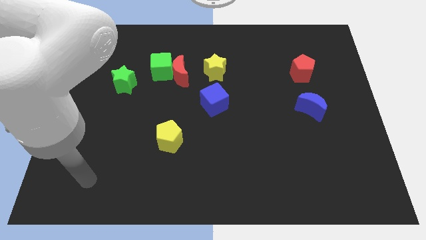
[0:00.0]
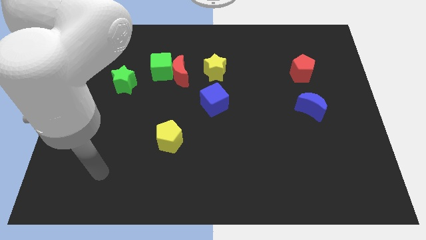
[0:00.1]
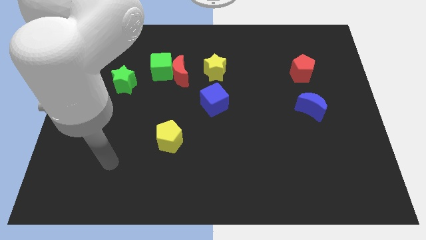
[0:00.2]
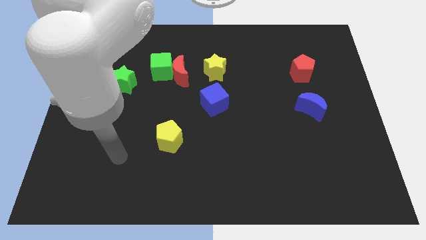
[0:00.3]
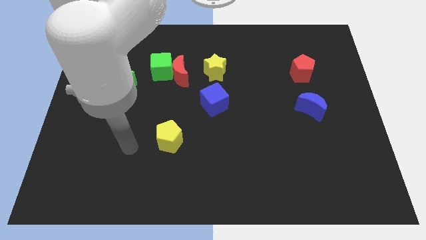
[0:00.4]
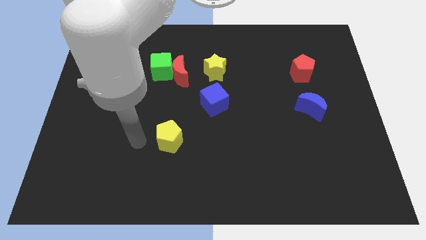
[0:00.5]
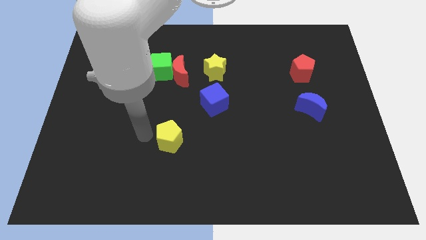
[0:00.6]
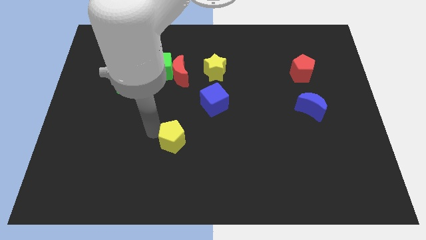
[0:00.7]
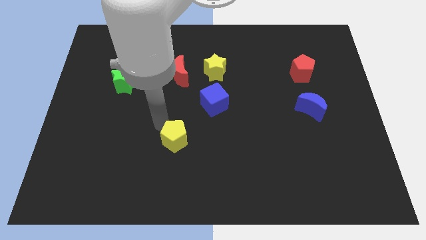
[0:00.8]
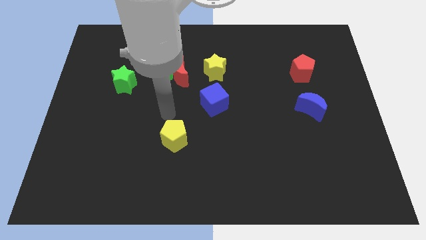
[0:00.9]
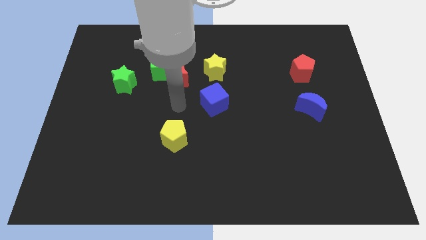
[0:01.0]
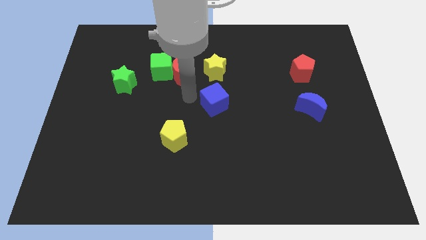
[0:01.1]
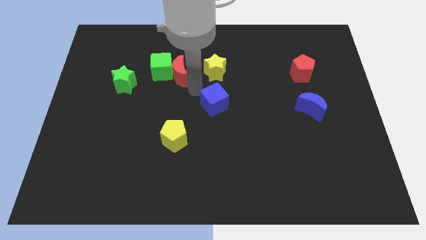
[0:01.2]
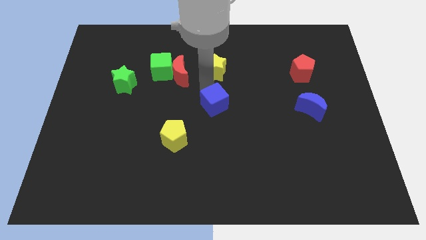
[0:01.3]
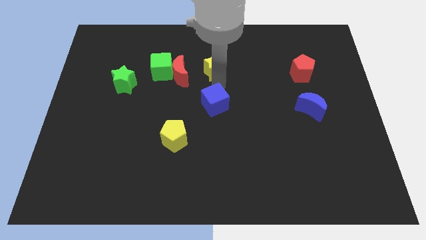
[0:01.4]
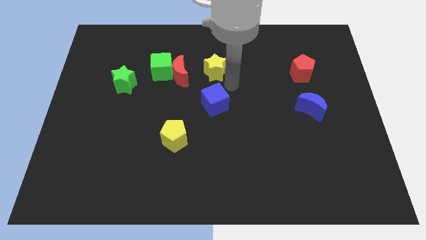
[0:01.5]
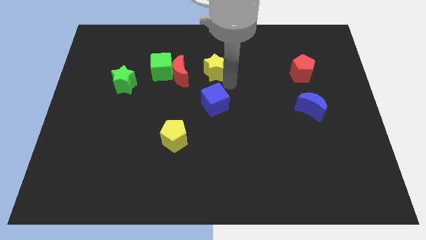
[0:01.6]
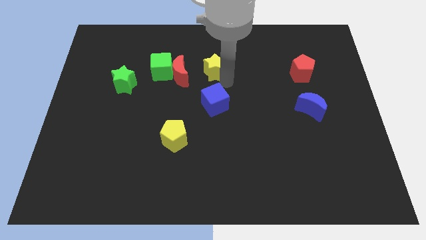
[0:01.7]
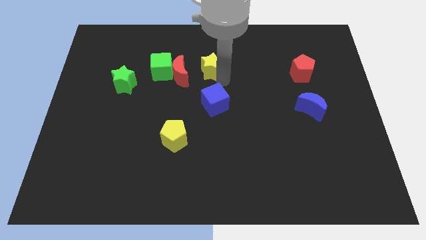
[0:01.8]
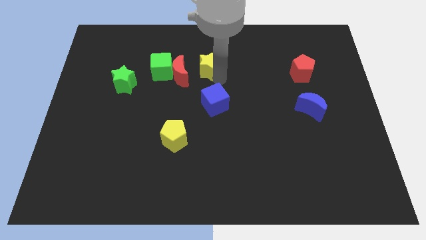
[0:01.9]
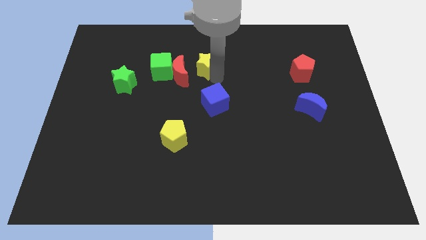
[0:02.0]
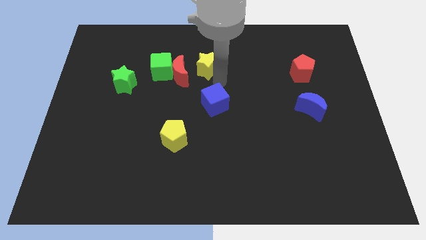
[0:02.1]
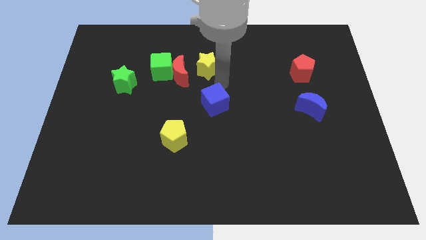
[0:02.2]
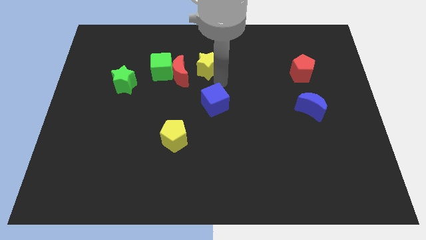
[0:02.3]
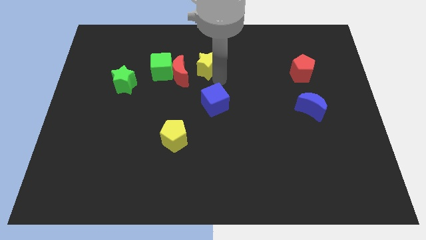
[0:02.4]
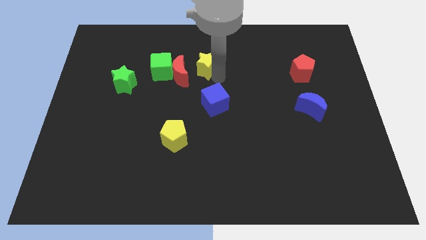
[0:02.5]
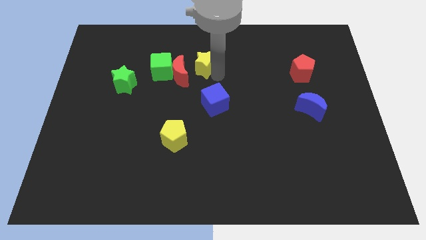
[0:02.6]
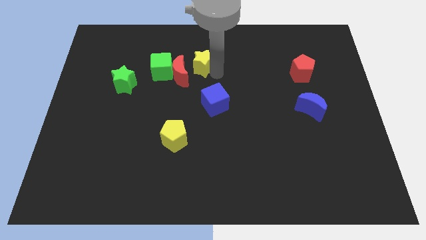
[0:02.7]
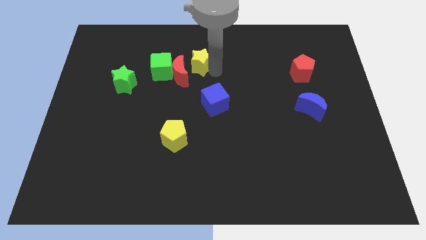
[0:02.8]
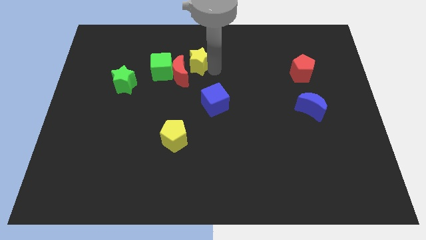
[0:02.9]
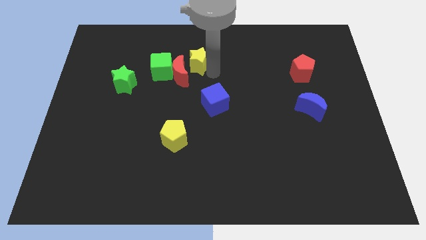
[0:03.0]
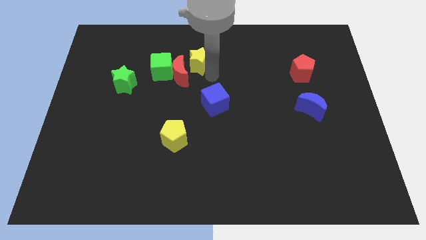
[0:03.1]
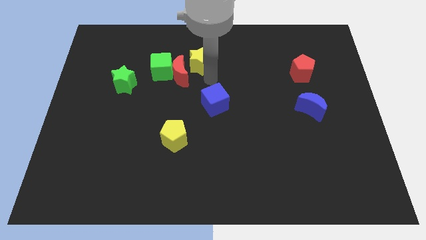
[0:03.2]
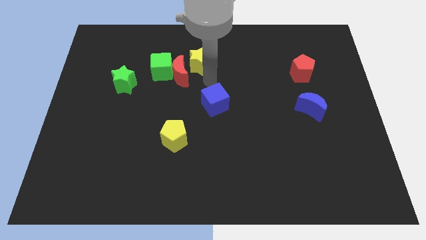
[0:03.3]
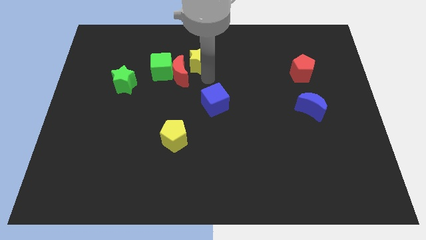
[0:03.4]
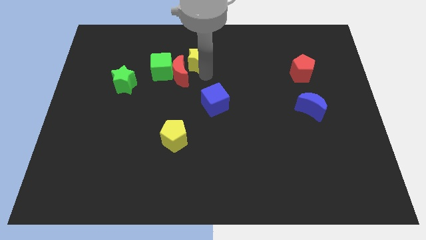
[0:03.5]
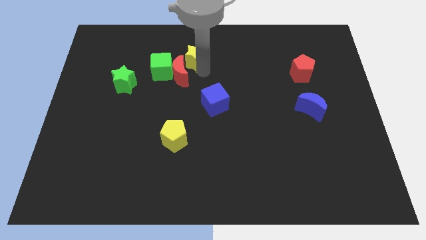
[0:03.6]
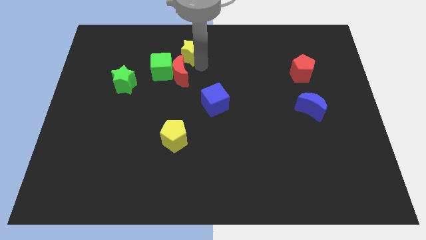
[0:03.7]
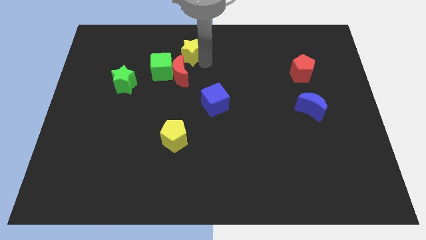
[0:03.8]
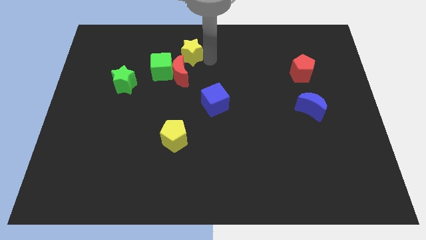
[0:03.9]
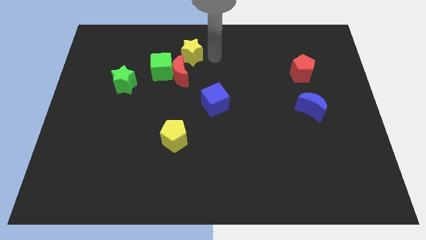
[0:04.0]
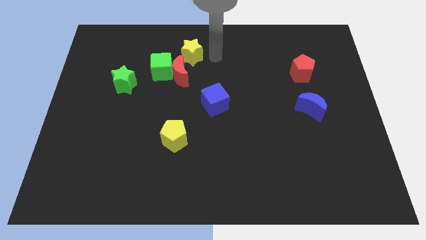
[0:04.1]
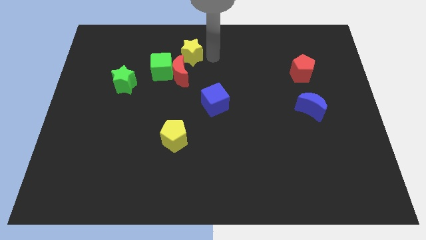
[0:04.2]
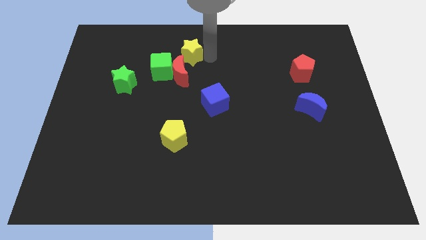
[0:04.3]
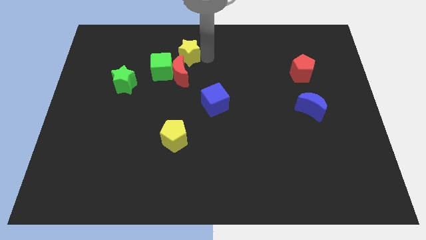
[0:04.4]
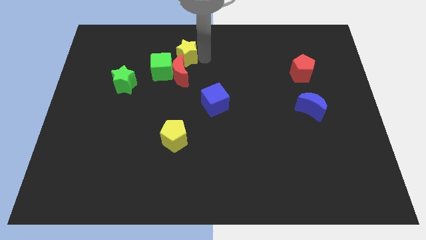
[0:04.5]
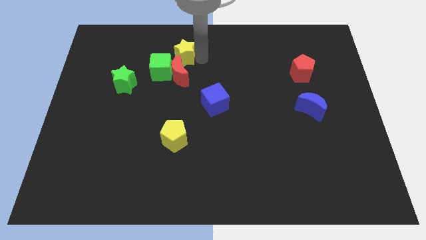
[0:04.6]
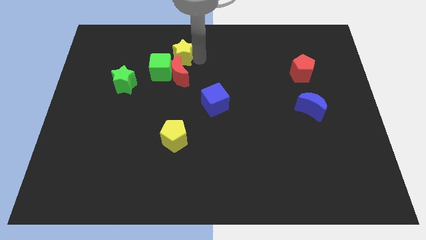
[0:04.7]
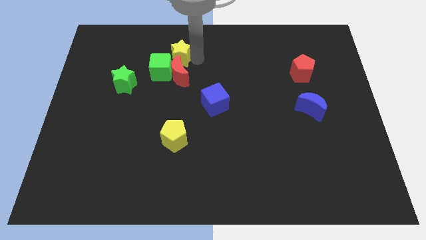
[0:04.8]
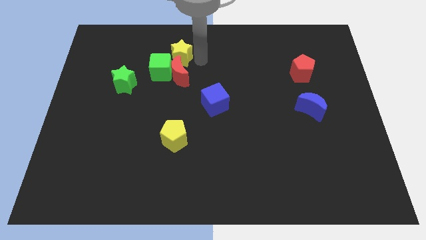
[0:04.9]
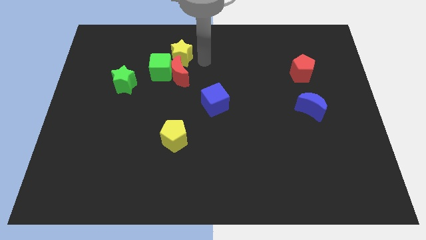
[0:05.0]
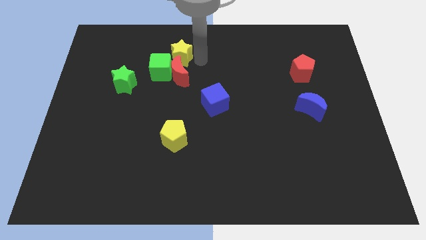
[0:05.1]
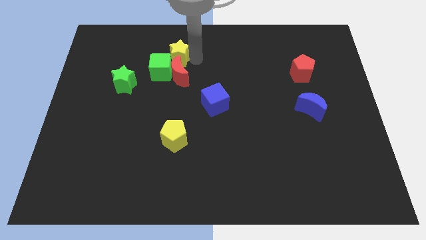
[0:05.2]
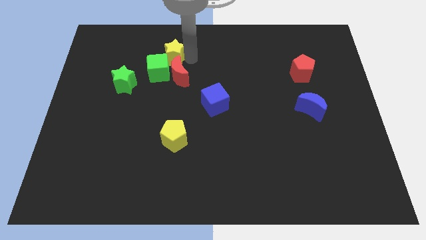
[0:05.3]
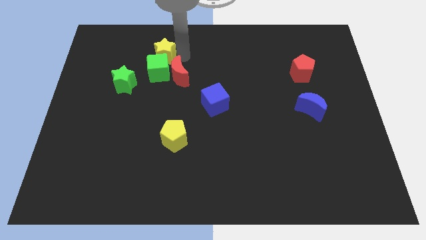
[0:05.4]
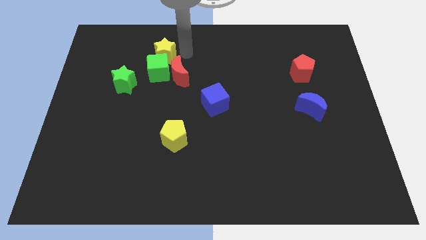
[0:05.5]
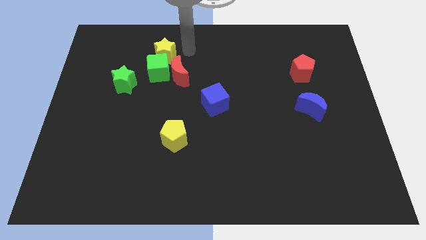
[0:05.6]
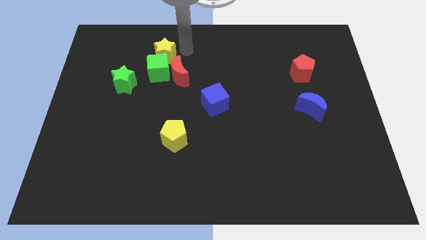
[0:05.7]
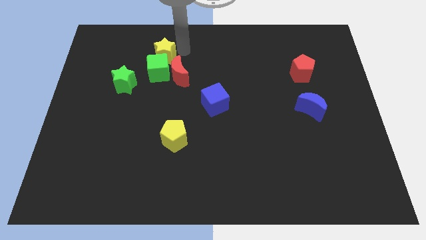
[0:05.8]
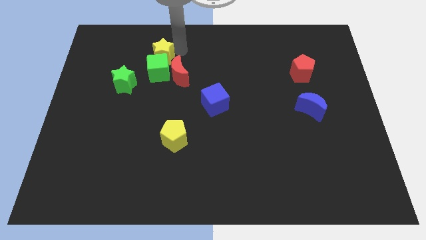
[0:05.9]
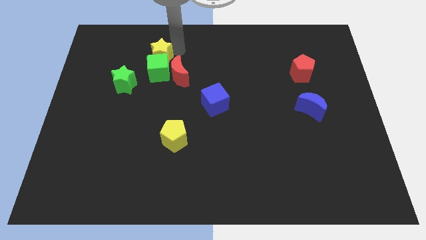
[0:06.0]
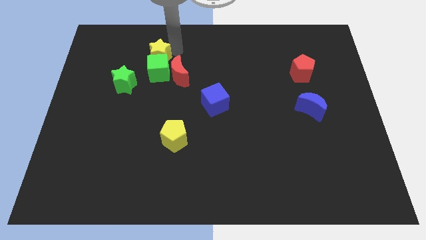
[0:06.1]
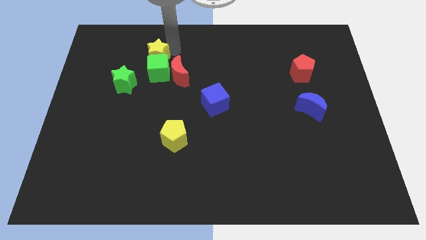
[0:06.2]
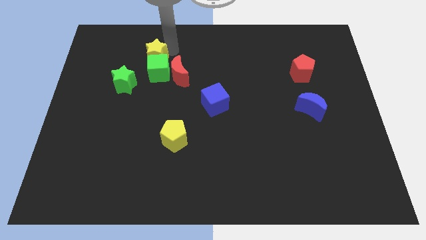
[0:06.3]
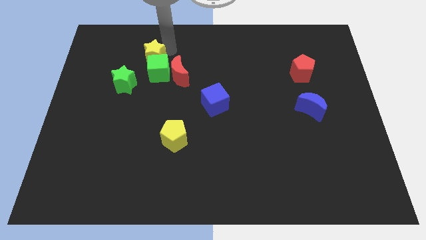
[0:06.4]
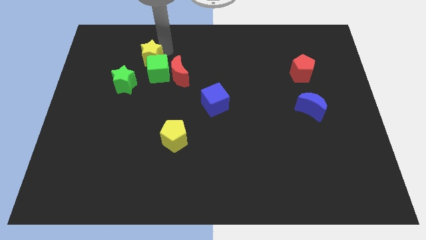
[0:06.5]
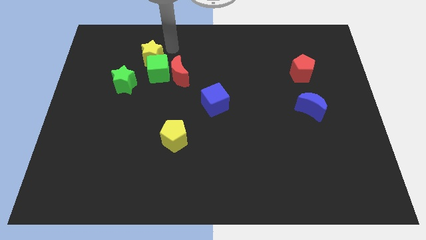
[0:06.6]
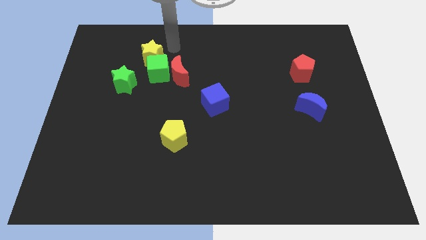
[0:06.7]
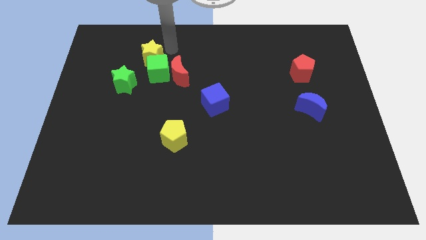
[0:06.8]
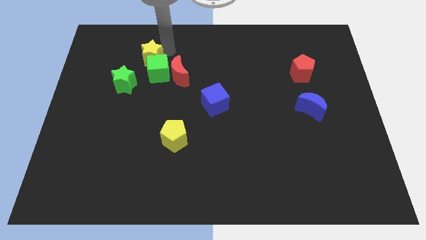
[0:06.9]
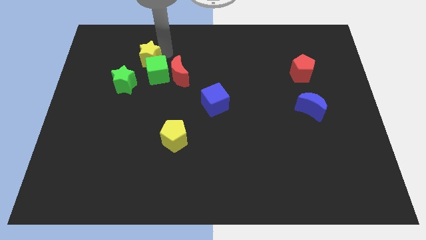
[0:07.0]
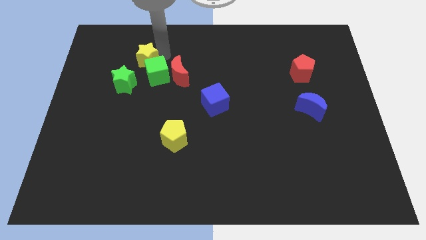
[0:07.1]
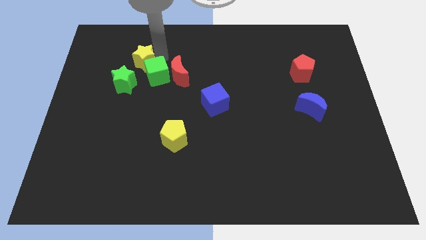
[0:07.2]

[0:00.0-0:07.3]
move the yellow star just left of the green cube
